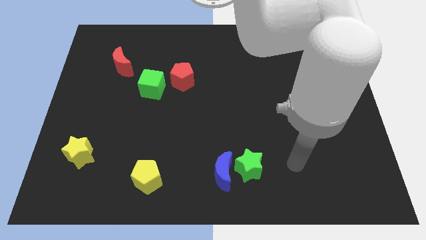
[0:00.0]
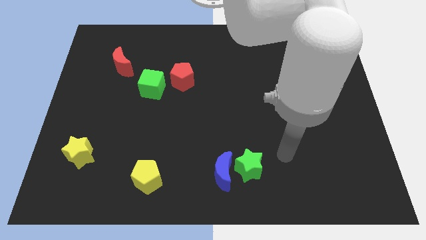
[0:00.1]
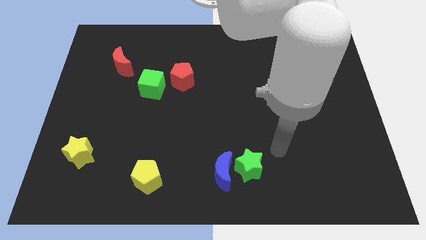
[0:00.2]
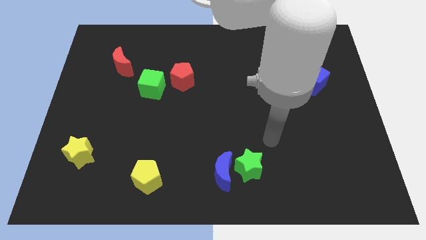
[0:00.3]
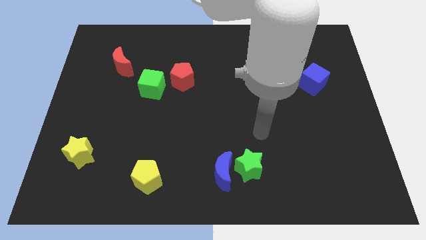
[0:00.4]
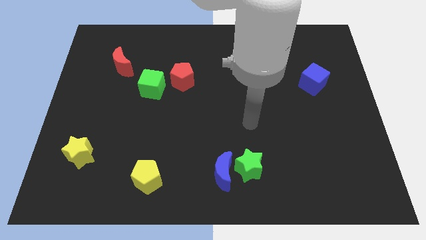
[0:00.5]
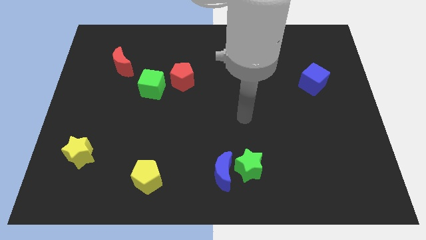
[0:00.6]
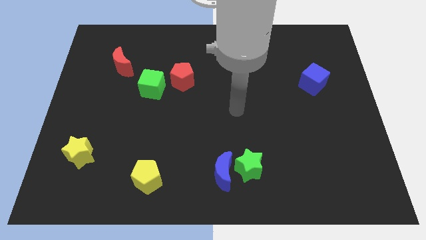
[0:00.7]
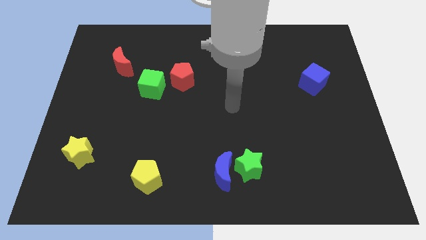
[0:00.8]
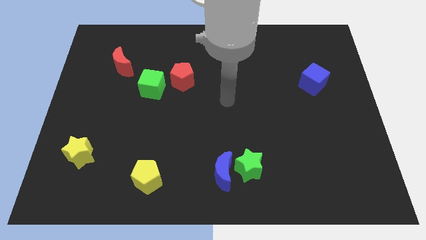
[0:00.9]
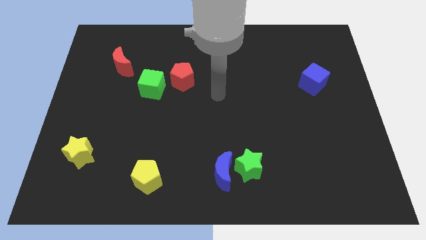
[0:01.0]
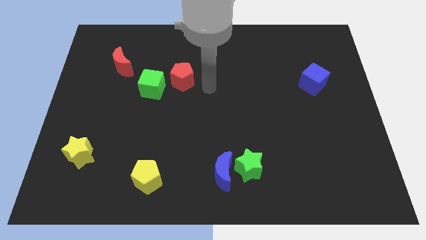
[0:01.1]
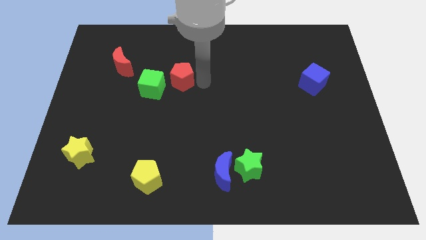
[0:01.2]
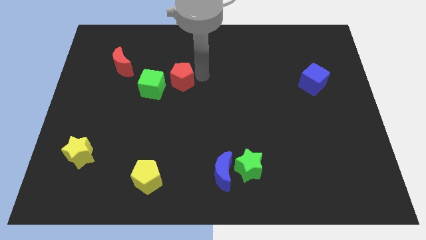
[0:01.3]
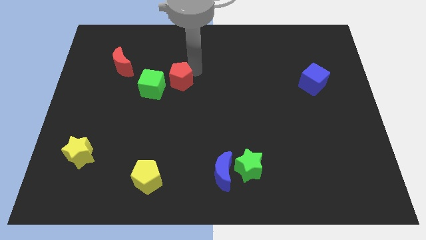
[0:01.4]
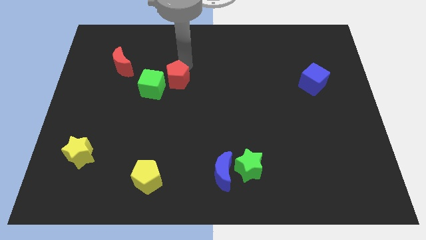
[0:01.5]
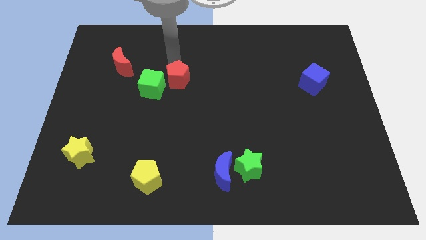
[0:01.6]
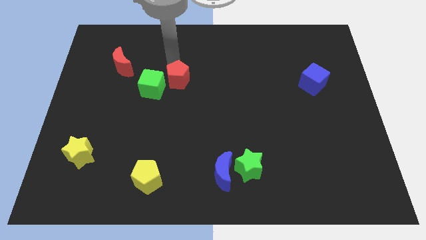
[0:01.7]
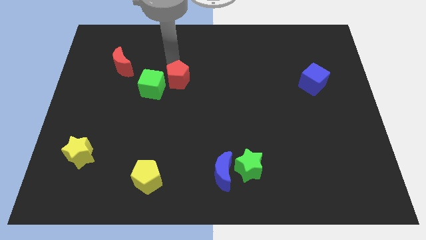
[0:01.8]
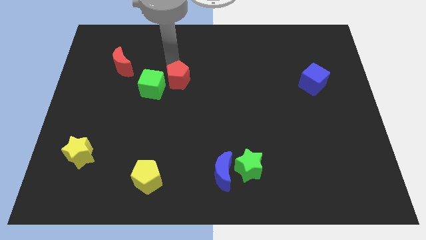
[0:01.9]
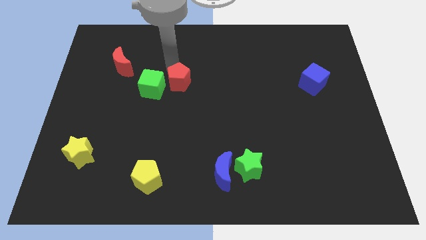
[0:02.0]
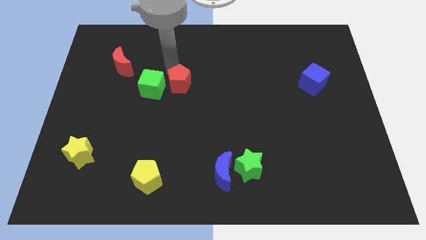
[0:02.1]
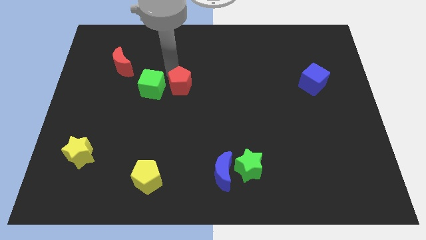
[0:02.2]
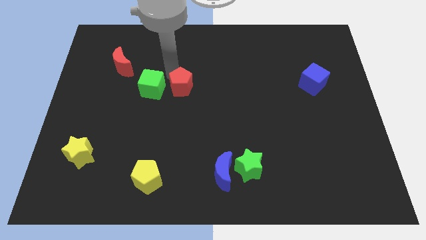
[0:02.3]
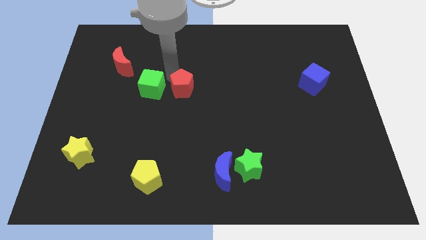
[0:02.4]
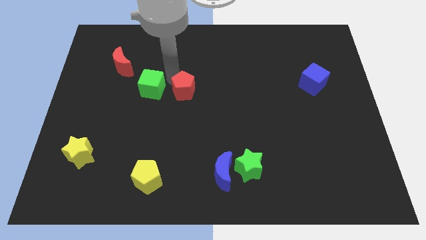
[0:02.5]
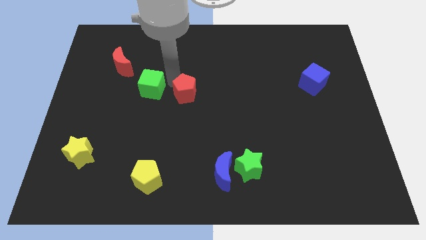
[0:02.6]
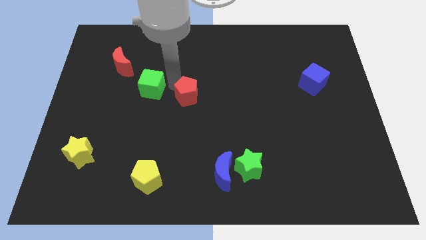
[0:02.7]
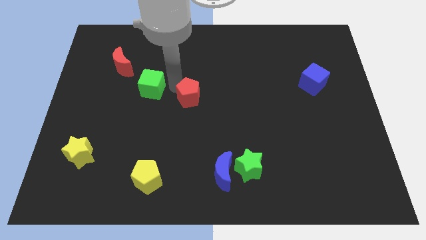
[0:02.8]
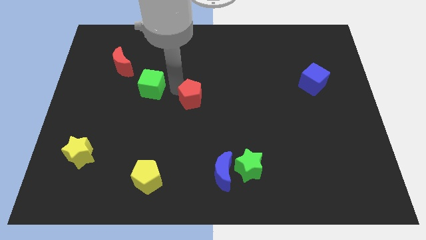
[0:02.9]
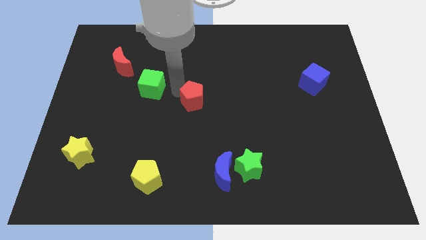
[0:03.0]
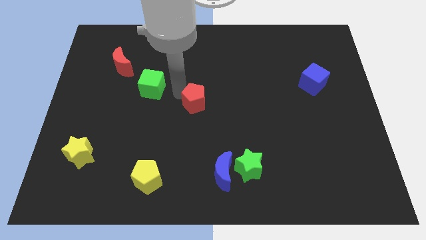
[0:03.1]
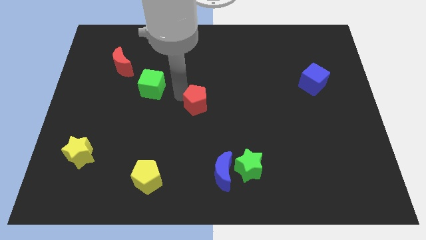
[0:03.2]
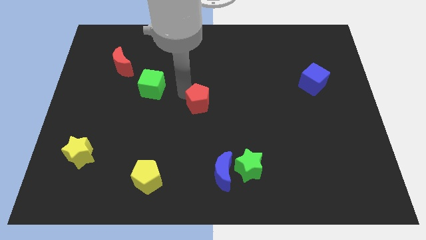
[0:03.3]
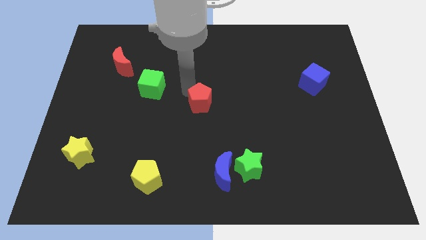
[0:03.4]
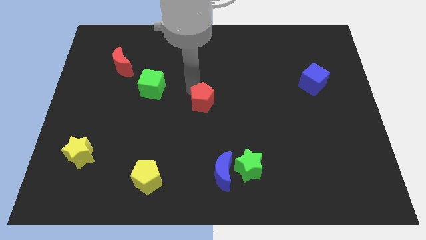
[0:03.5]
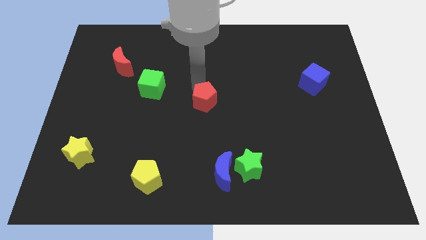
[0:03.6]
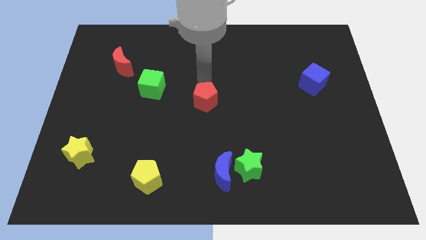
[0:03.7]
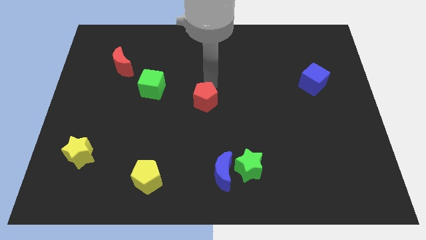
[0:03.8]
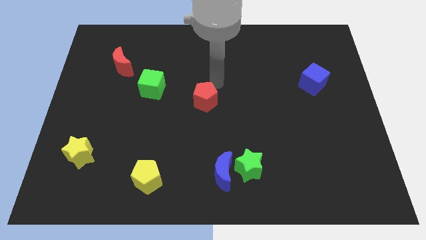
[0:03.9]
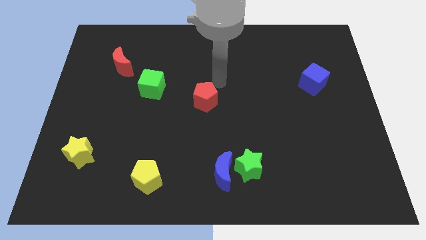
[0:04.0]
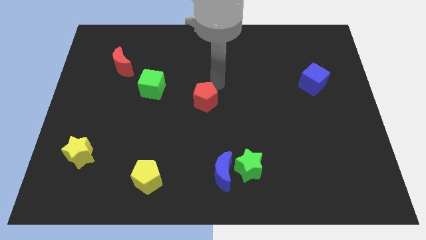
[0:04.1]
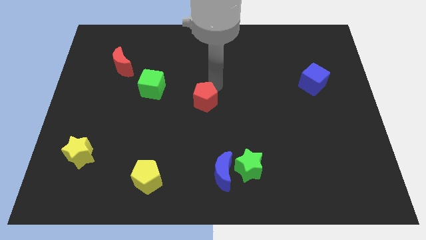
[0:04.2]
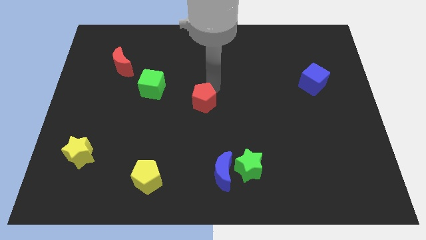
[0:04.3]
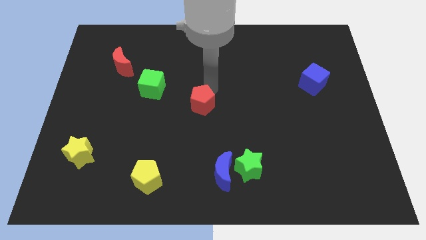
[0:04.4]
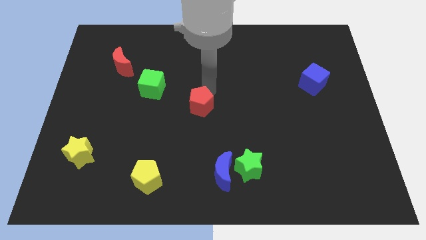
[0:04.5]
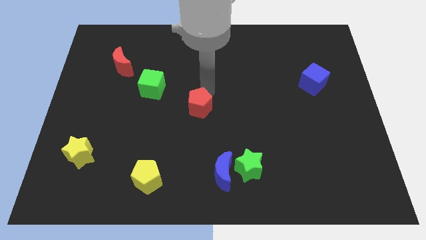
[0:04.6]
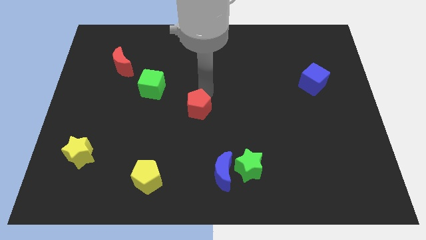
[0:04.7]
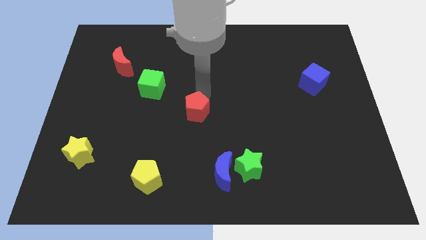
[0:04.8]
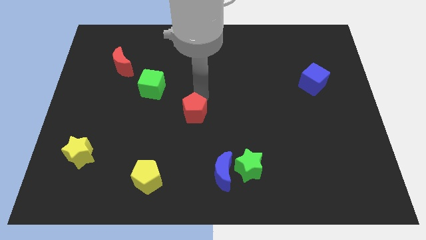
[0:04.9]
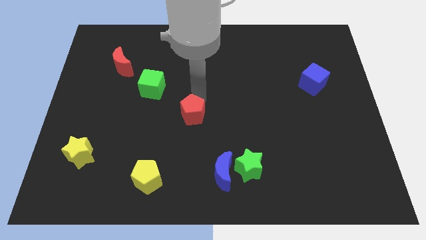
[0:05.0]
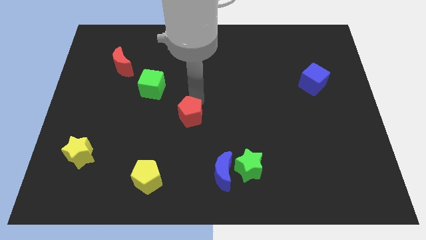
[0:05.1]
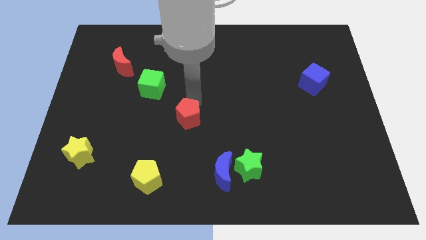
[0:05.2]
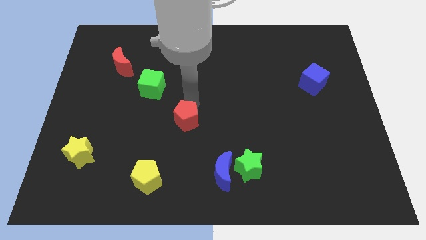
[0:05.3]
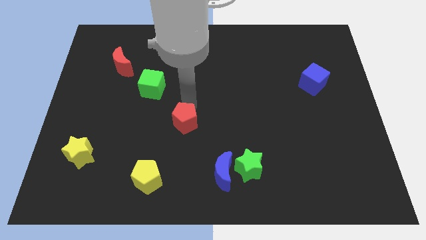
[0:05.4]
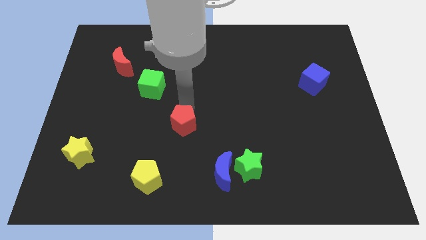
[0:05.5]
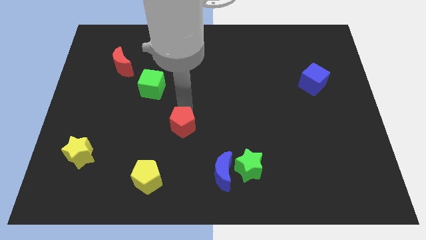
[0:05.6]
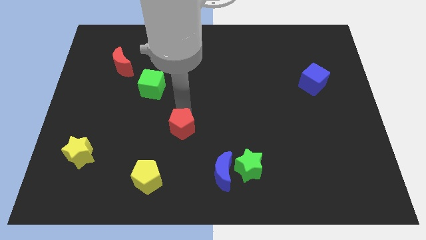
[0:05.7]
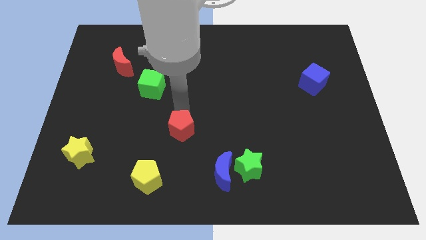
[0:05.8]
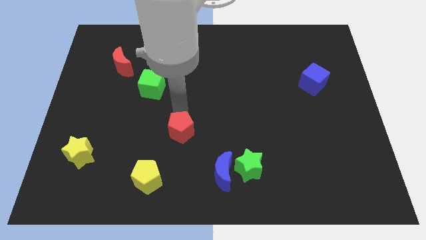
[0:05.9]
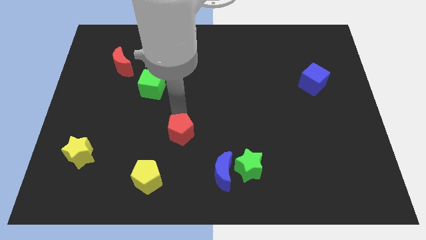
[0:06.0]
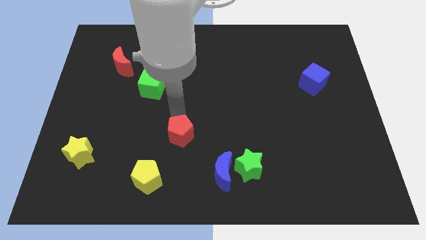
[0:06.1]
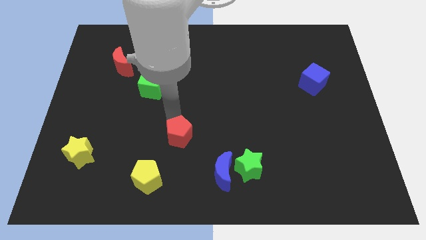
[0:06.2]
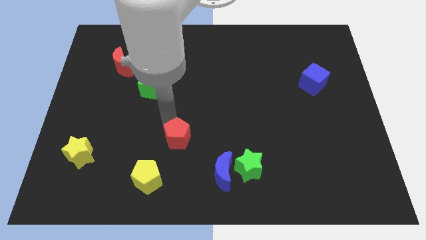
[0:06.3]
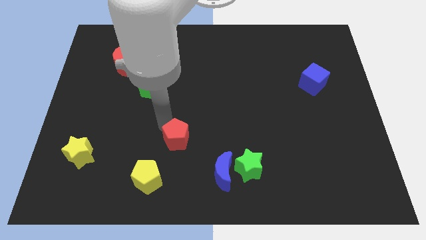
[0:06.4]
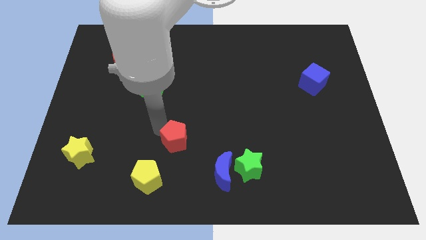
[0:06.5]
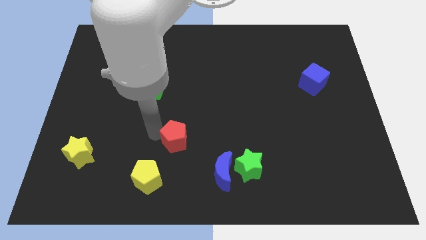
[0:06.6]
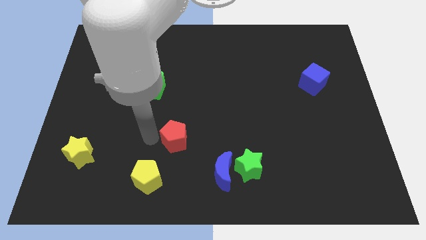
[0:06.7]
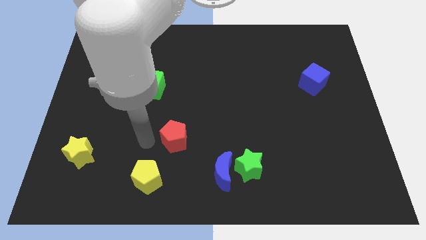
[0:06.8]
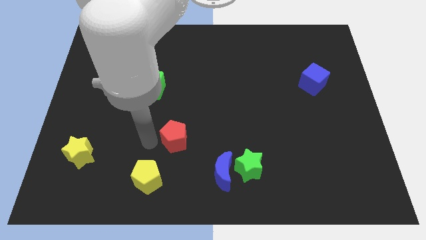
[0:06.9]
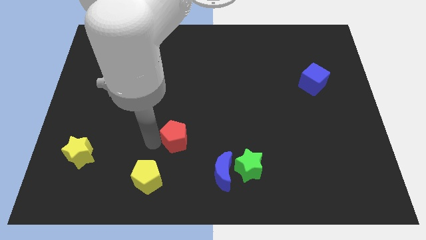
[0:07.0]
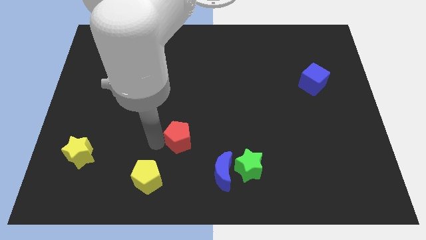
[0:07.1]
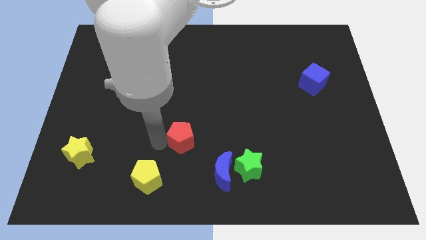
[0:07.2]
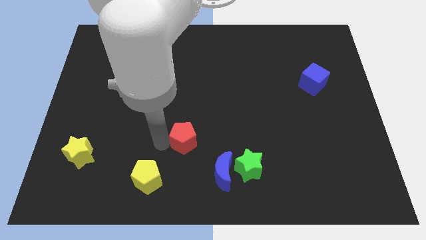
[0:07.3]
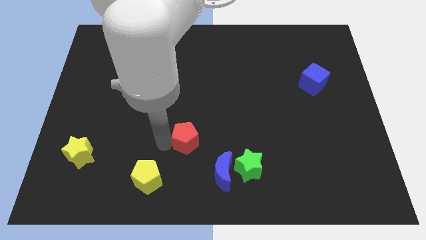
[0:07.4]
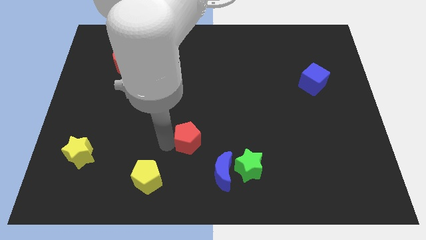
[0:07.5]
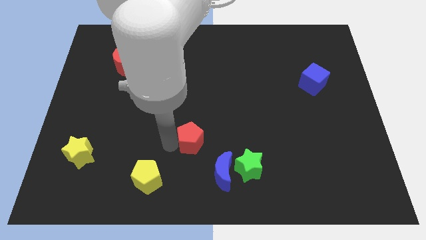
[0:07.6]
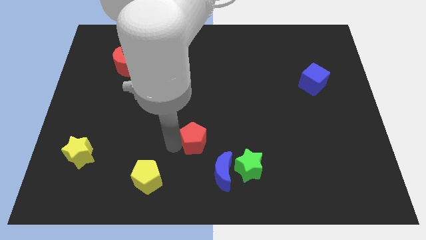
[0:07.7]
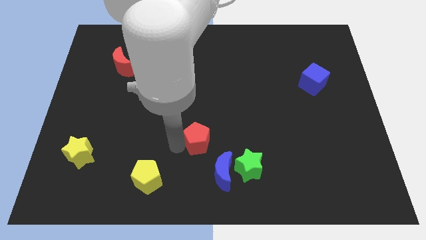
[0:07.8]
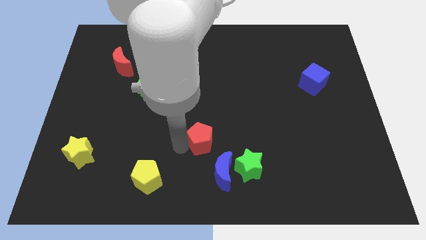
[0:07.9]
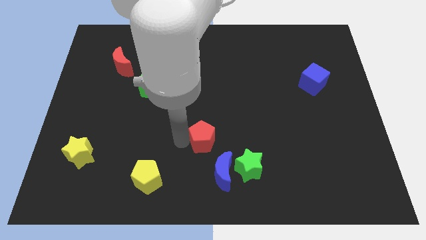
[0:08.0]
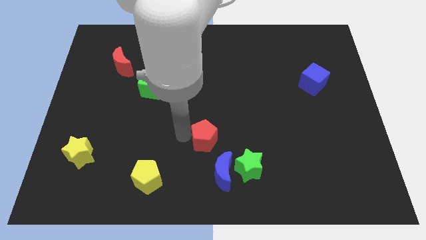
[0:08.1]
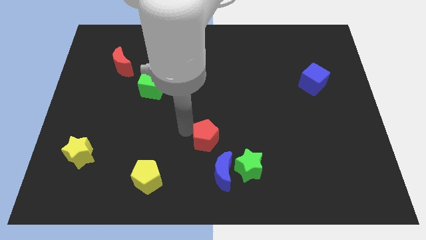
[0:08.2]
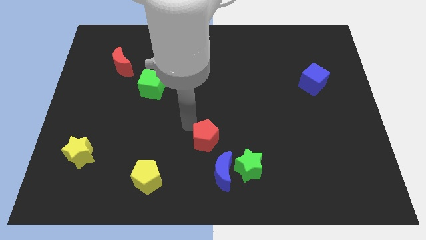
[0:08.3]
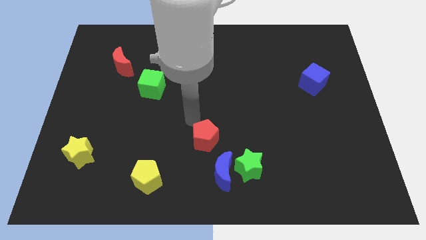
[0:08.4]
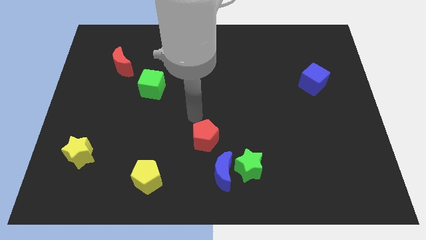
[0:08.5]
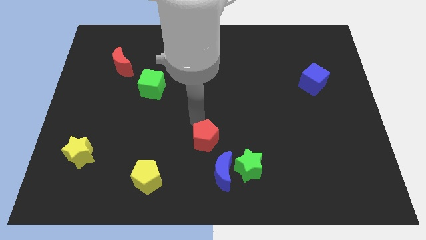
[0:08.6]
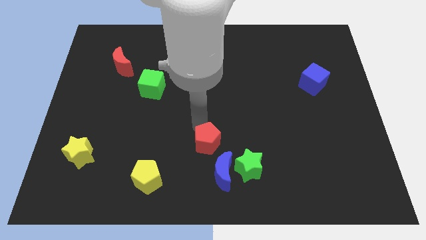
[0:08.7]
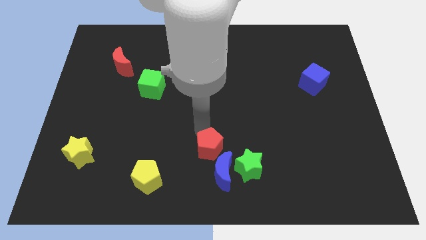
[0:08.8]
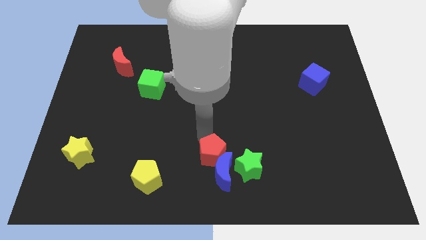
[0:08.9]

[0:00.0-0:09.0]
put the red pentagon next to the blue moon
